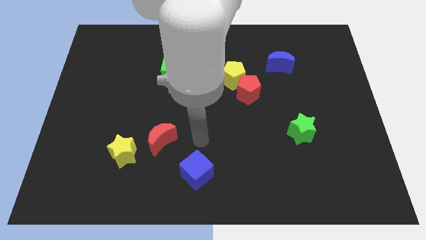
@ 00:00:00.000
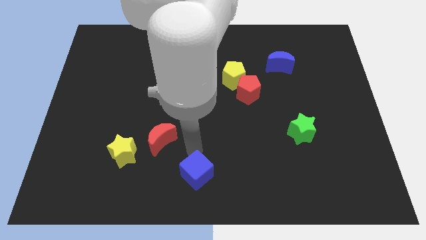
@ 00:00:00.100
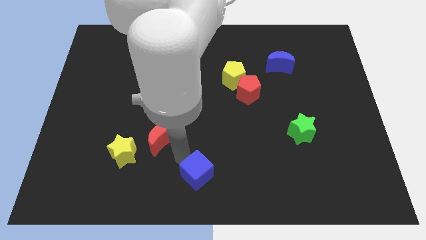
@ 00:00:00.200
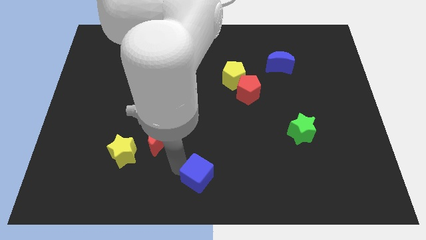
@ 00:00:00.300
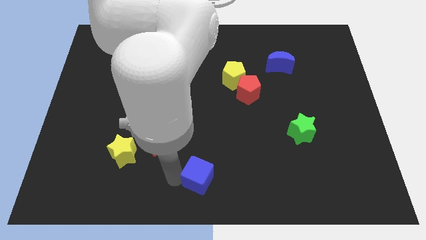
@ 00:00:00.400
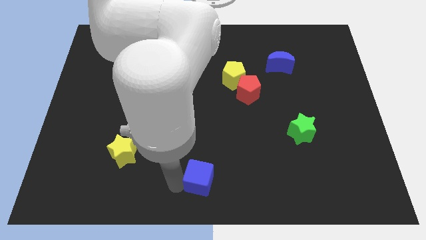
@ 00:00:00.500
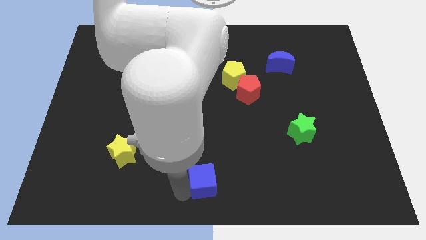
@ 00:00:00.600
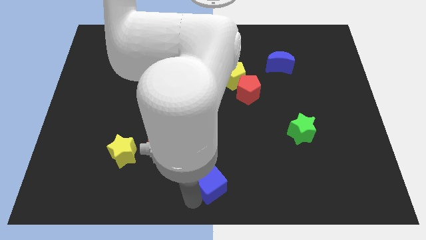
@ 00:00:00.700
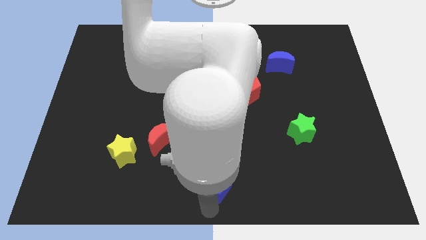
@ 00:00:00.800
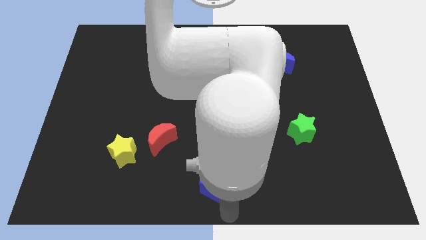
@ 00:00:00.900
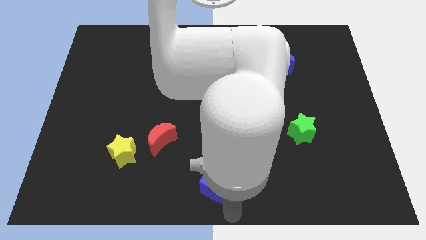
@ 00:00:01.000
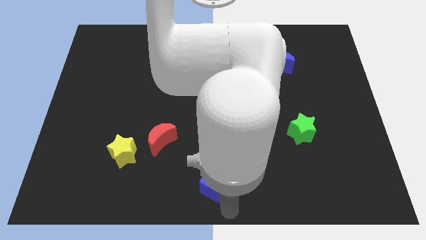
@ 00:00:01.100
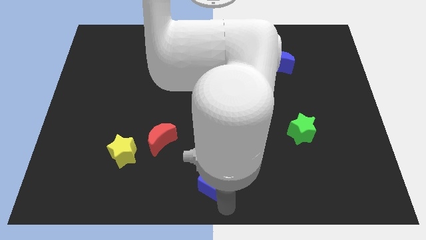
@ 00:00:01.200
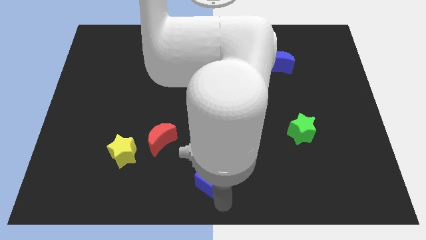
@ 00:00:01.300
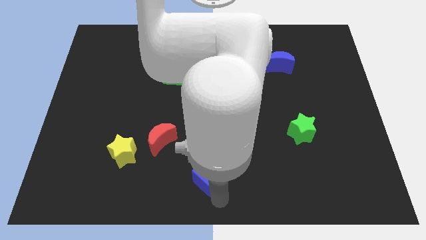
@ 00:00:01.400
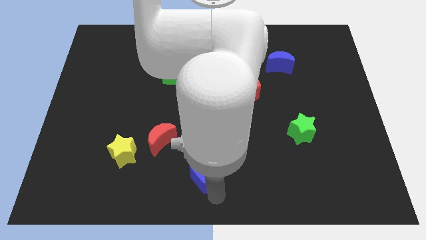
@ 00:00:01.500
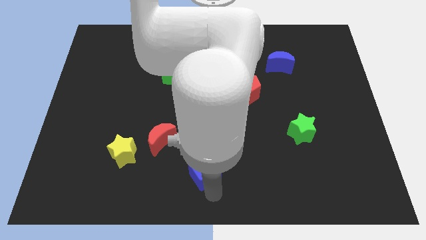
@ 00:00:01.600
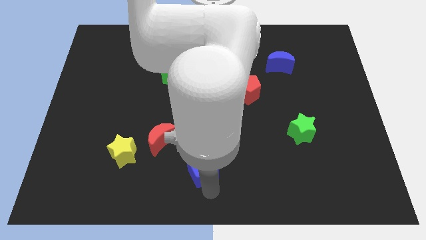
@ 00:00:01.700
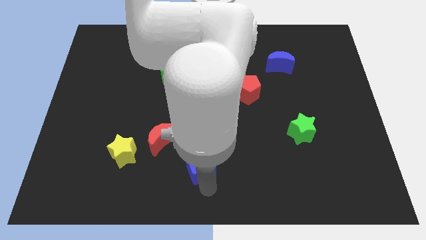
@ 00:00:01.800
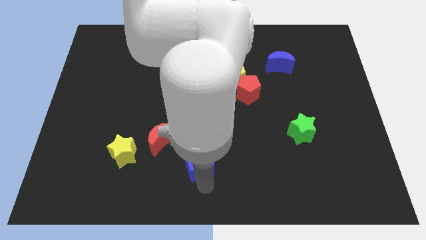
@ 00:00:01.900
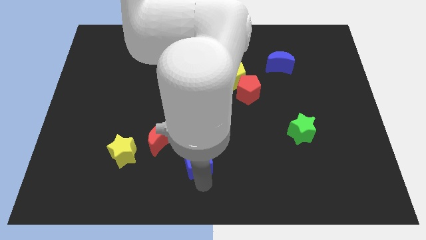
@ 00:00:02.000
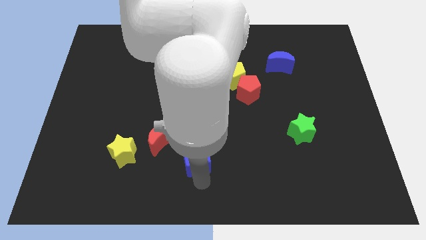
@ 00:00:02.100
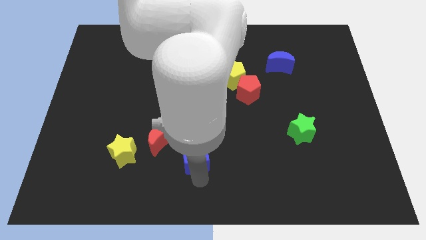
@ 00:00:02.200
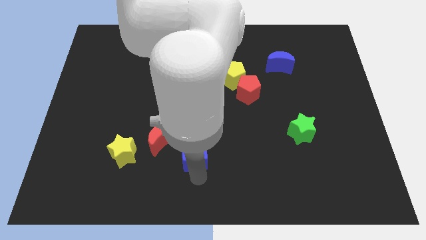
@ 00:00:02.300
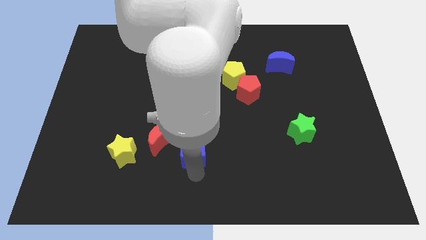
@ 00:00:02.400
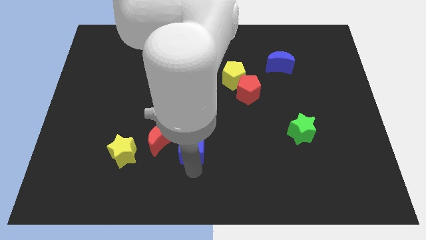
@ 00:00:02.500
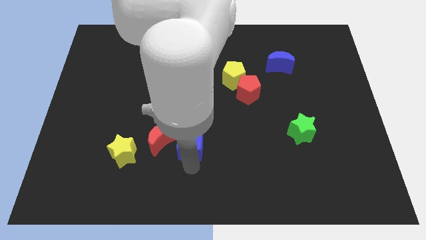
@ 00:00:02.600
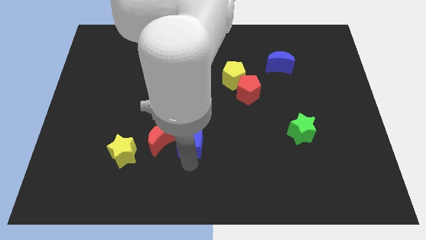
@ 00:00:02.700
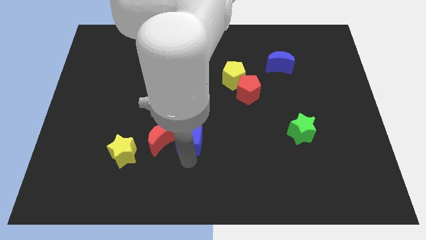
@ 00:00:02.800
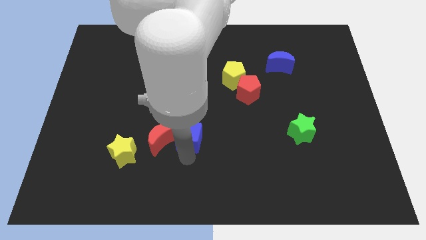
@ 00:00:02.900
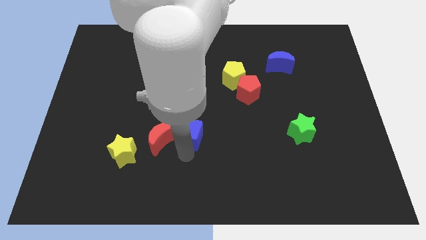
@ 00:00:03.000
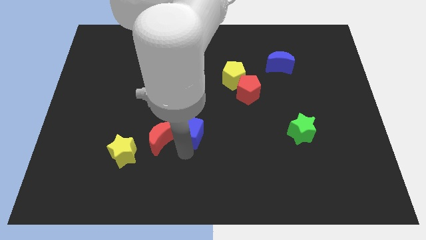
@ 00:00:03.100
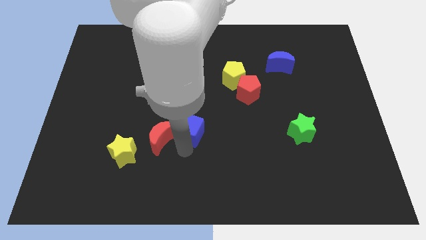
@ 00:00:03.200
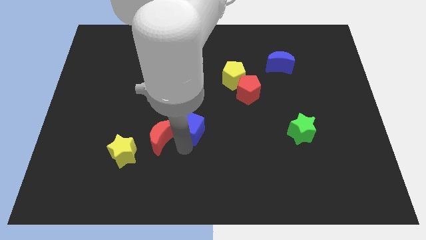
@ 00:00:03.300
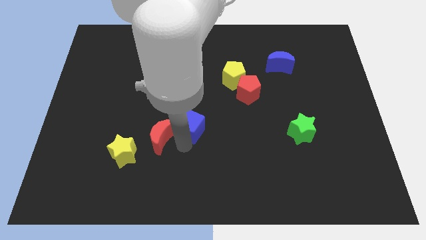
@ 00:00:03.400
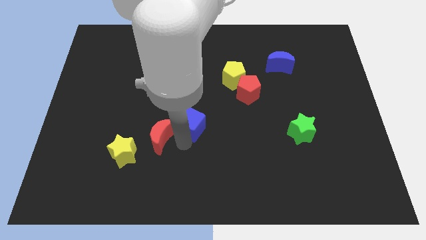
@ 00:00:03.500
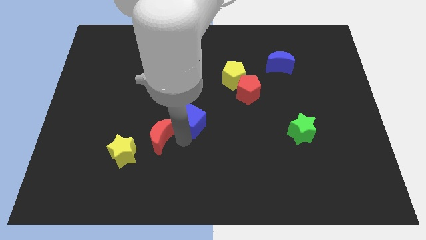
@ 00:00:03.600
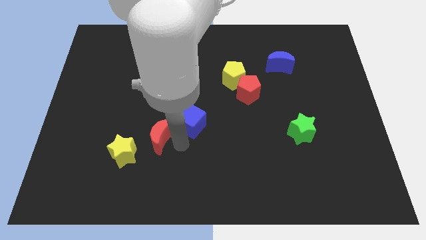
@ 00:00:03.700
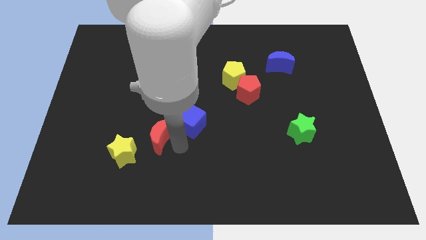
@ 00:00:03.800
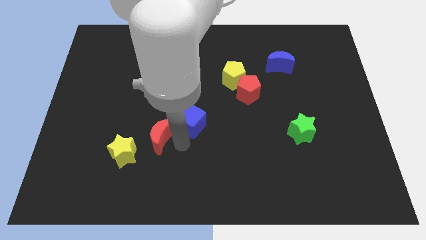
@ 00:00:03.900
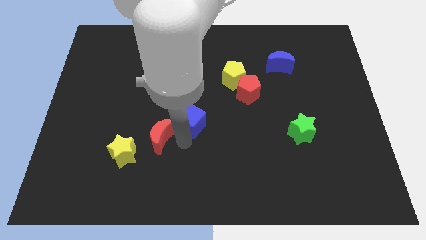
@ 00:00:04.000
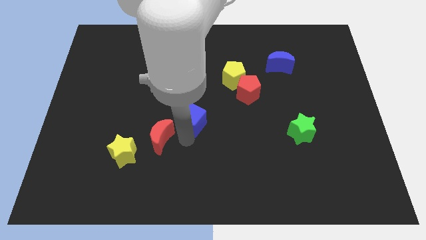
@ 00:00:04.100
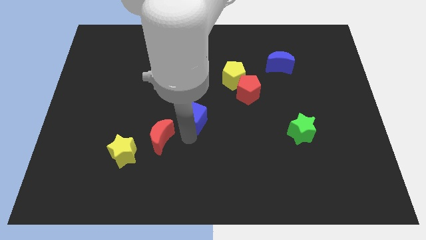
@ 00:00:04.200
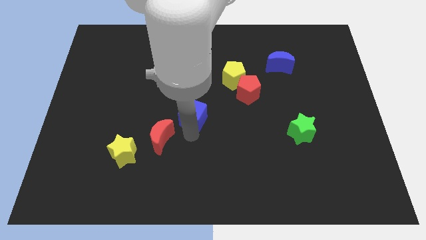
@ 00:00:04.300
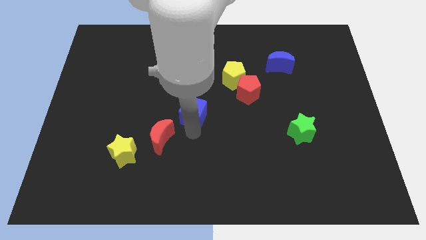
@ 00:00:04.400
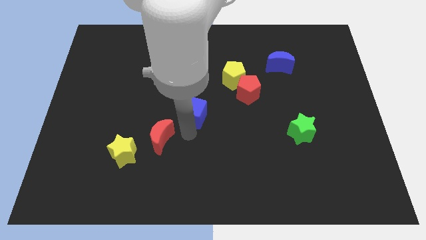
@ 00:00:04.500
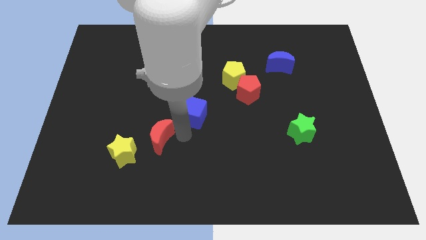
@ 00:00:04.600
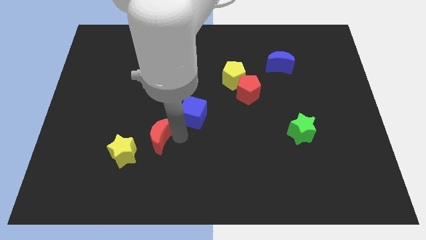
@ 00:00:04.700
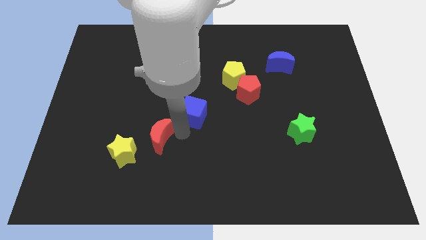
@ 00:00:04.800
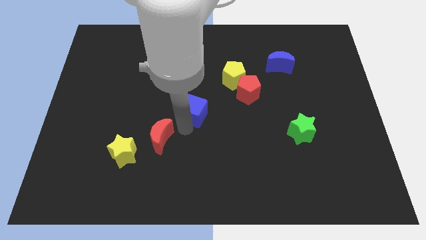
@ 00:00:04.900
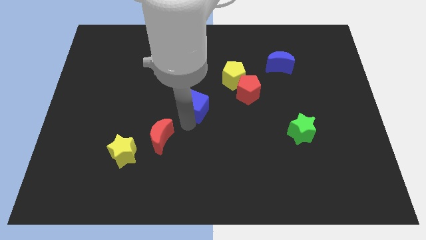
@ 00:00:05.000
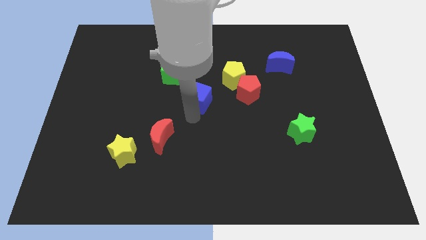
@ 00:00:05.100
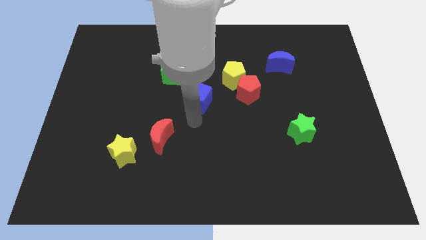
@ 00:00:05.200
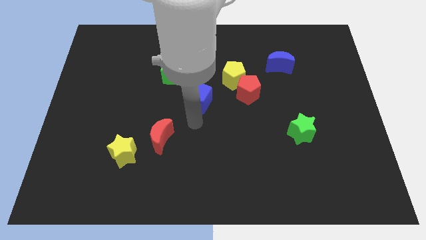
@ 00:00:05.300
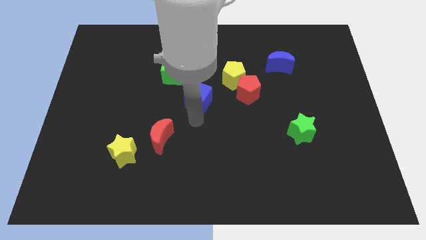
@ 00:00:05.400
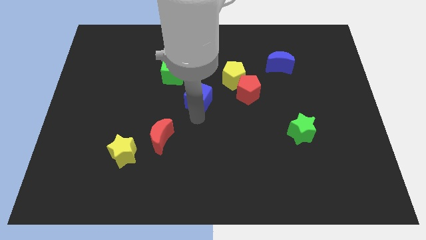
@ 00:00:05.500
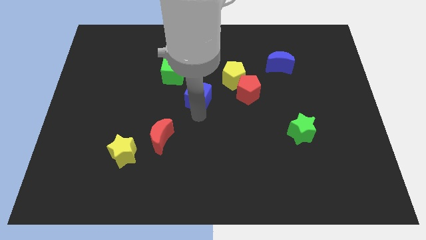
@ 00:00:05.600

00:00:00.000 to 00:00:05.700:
push the blue cube up

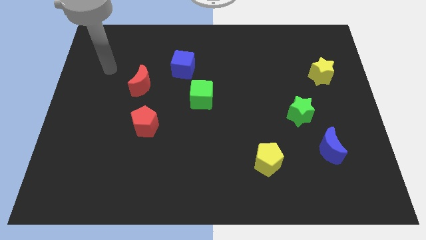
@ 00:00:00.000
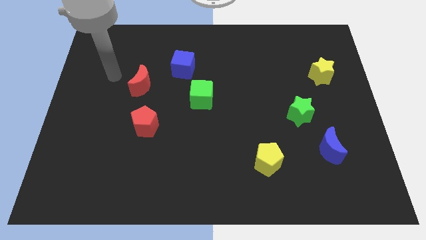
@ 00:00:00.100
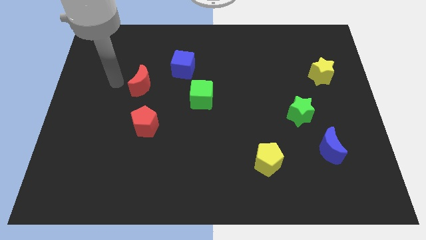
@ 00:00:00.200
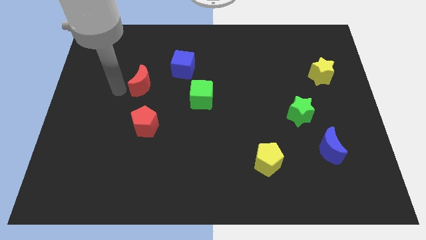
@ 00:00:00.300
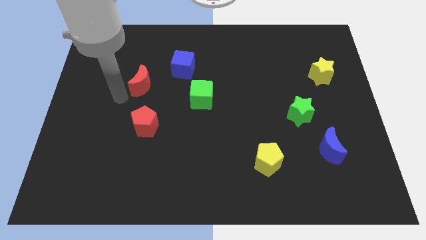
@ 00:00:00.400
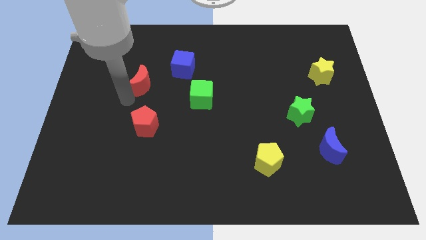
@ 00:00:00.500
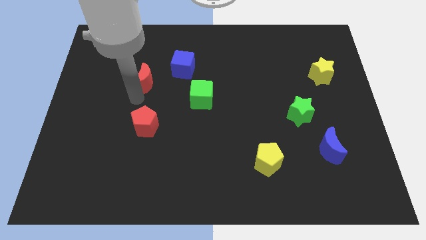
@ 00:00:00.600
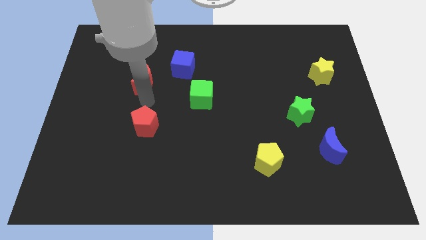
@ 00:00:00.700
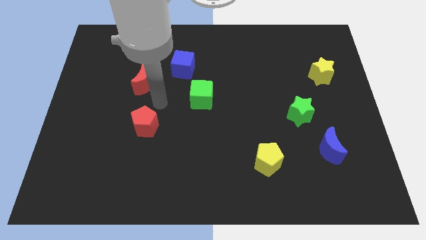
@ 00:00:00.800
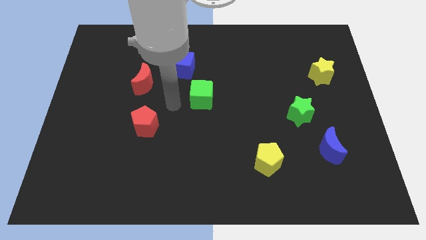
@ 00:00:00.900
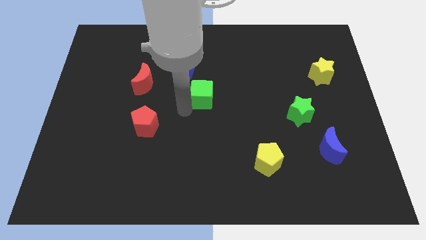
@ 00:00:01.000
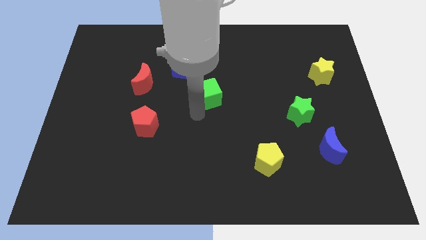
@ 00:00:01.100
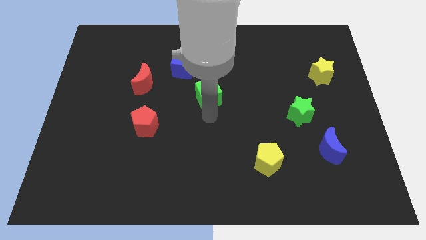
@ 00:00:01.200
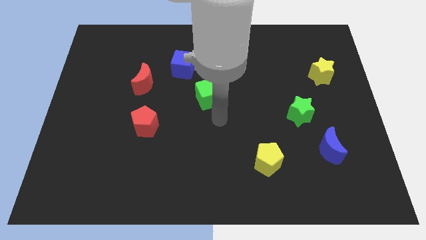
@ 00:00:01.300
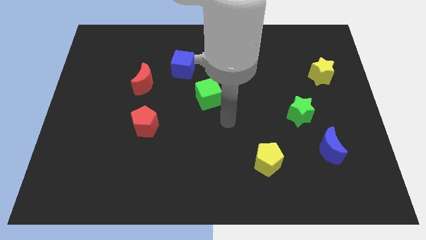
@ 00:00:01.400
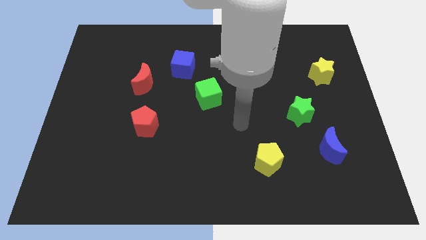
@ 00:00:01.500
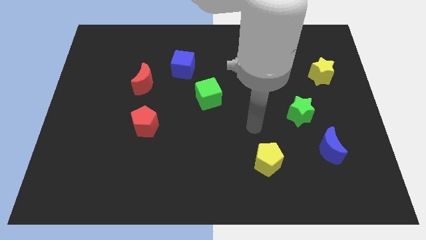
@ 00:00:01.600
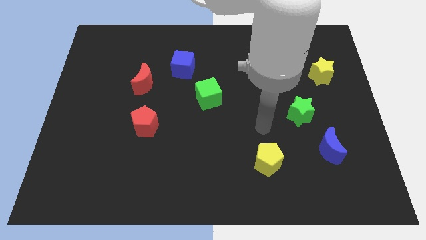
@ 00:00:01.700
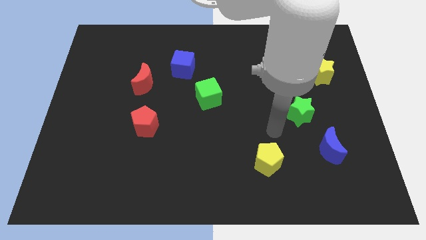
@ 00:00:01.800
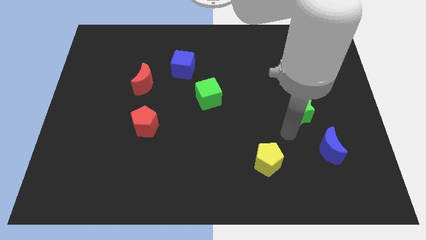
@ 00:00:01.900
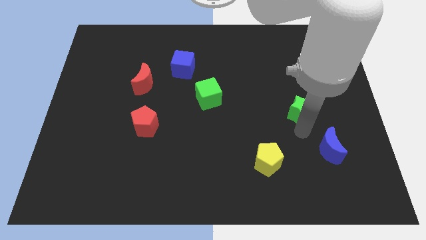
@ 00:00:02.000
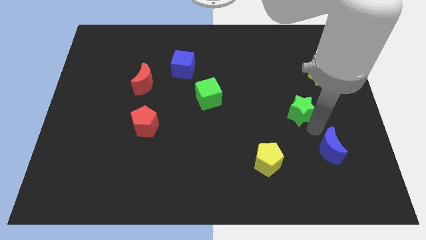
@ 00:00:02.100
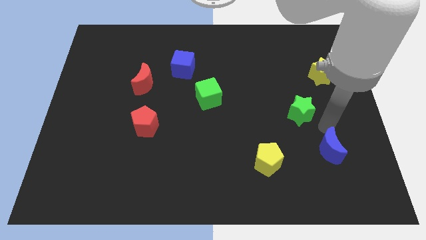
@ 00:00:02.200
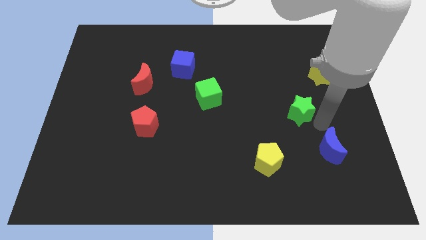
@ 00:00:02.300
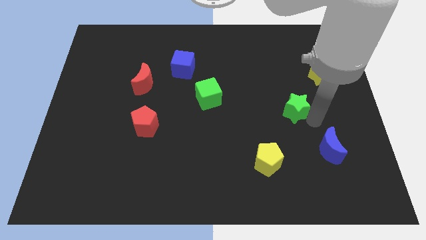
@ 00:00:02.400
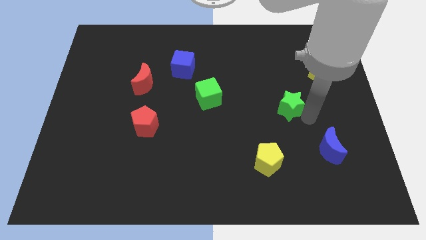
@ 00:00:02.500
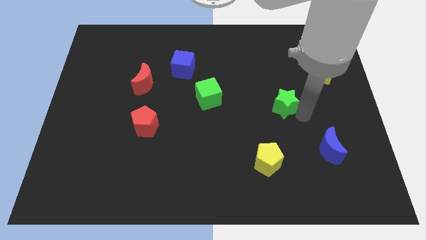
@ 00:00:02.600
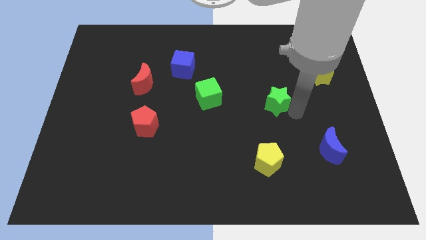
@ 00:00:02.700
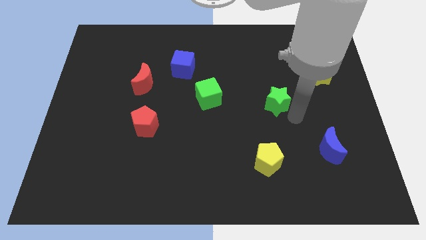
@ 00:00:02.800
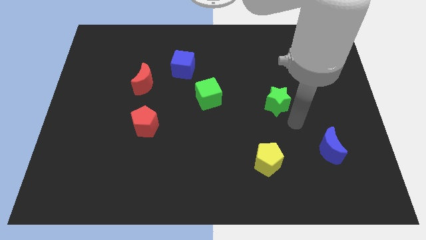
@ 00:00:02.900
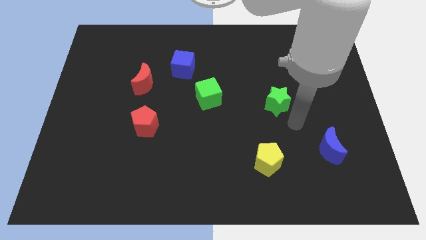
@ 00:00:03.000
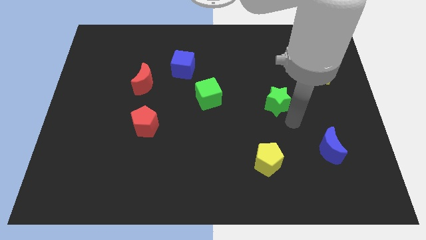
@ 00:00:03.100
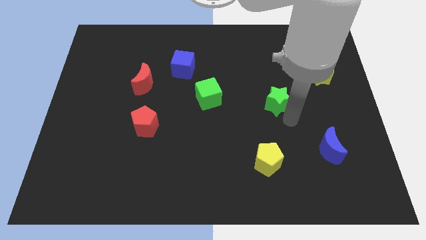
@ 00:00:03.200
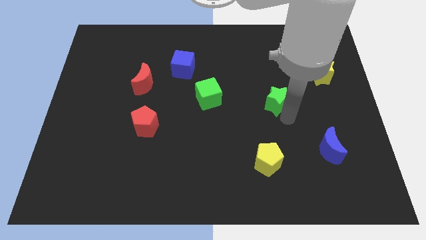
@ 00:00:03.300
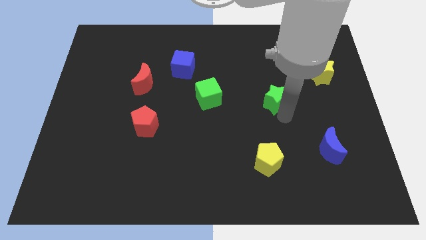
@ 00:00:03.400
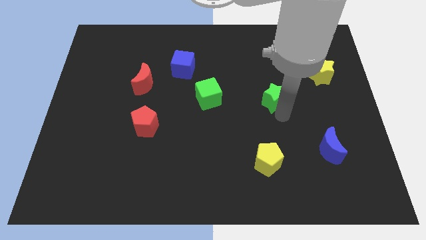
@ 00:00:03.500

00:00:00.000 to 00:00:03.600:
push the green star somewhat upwards and left diagonally
